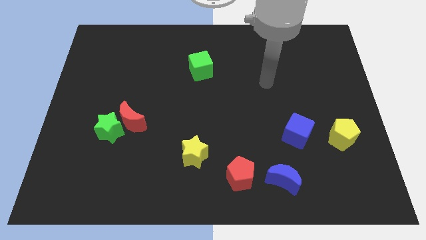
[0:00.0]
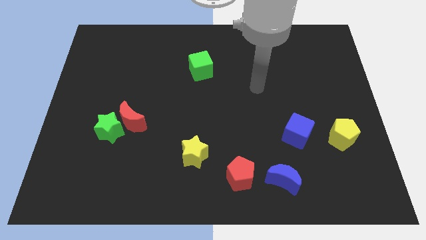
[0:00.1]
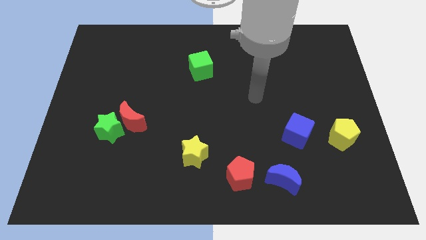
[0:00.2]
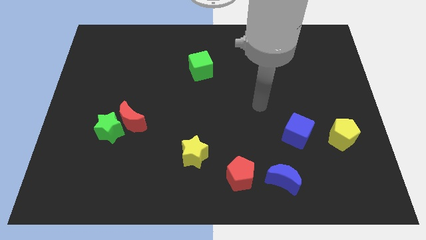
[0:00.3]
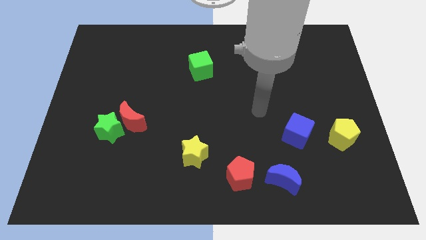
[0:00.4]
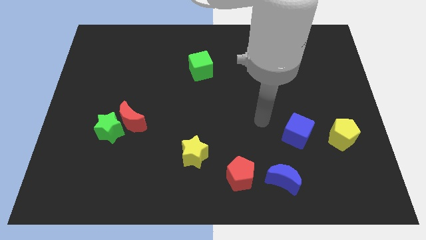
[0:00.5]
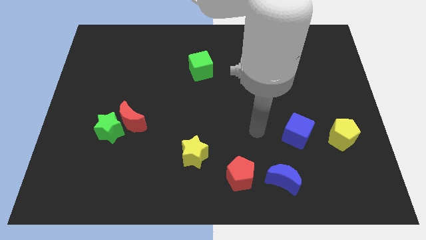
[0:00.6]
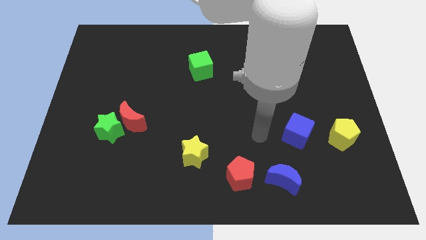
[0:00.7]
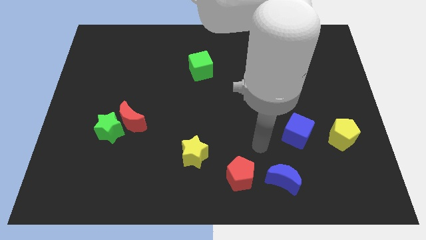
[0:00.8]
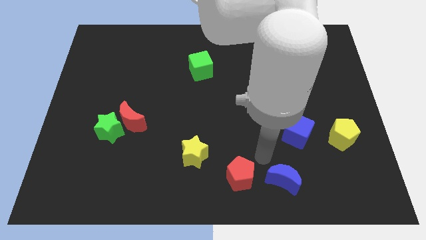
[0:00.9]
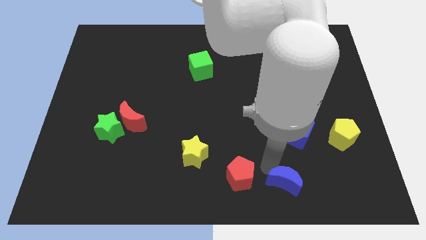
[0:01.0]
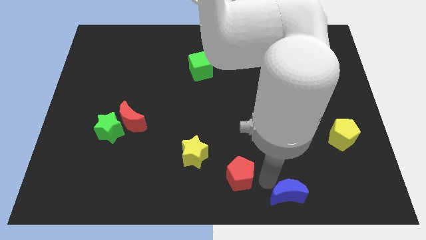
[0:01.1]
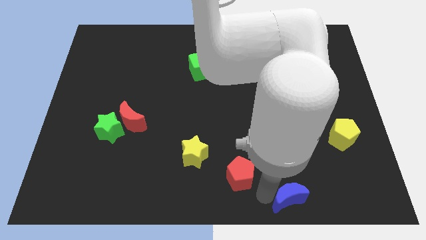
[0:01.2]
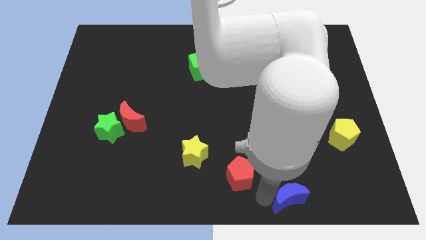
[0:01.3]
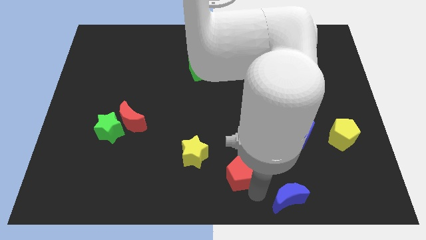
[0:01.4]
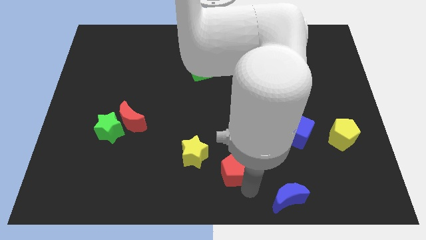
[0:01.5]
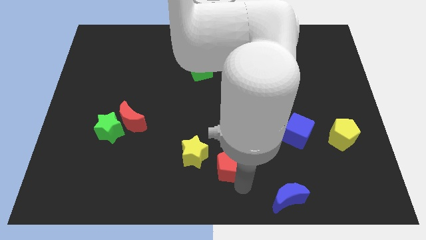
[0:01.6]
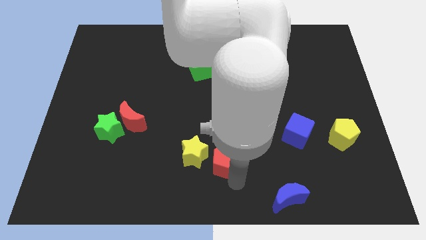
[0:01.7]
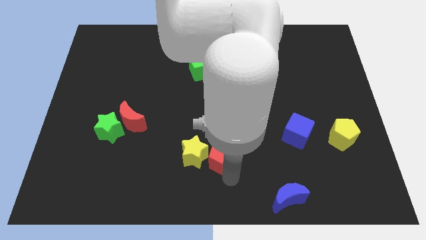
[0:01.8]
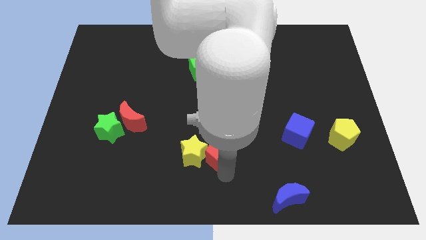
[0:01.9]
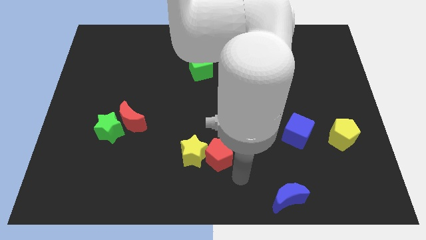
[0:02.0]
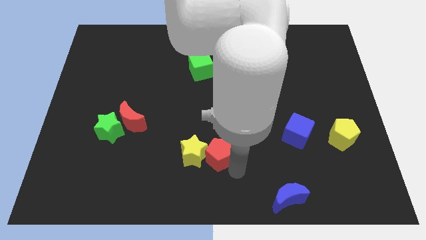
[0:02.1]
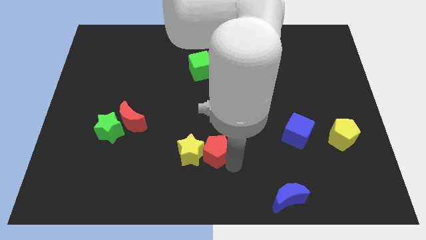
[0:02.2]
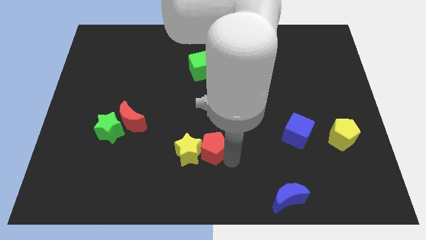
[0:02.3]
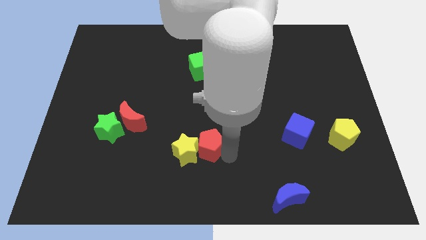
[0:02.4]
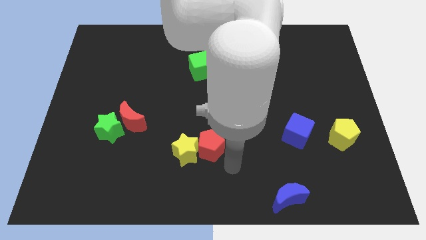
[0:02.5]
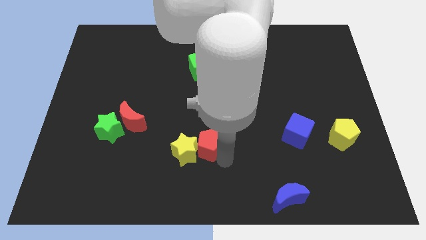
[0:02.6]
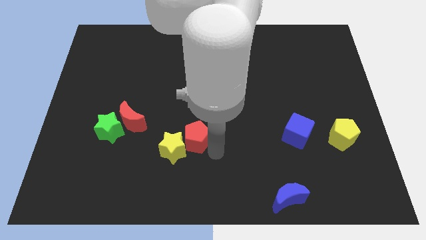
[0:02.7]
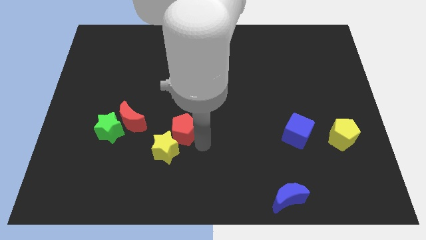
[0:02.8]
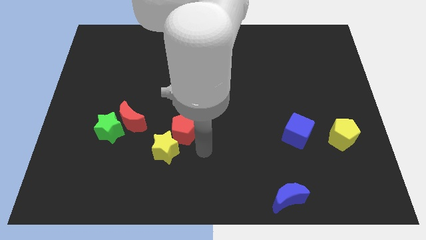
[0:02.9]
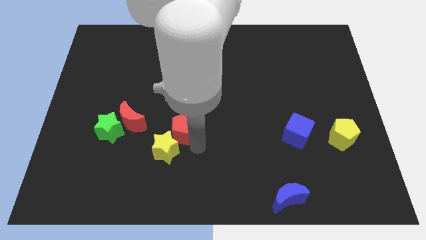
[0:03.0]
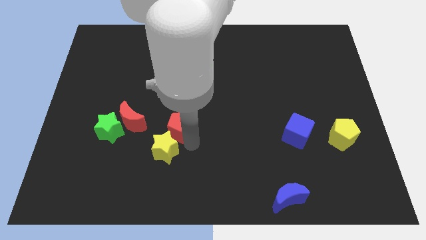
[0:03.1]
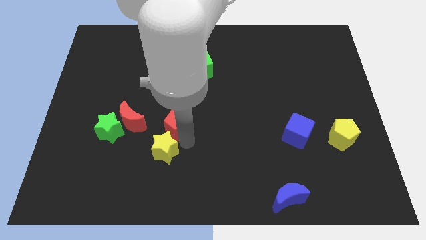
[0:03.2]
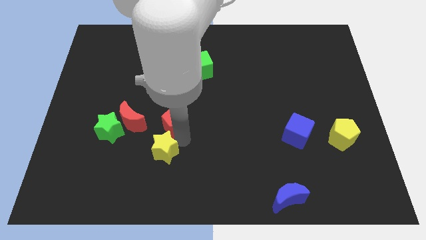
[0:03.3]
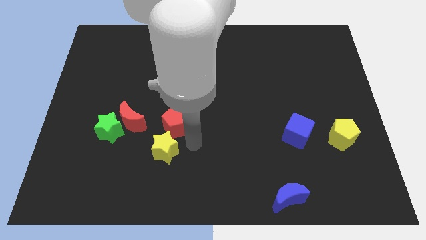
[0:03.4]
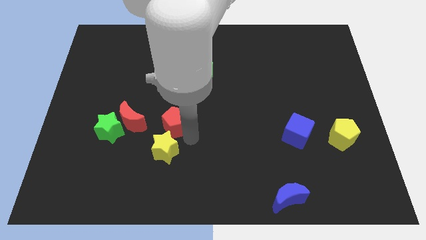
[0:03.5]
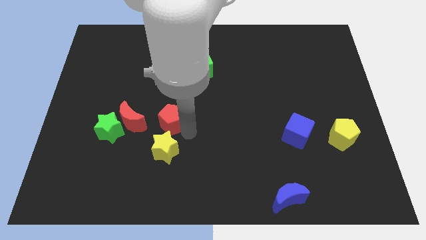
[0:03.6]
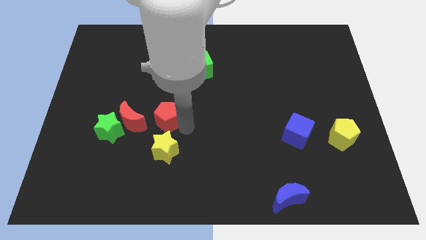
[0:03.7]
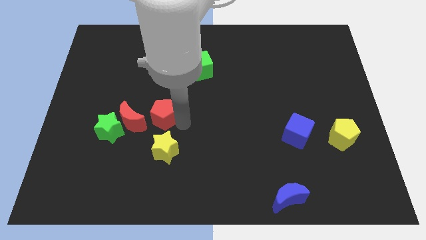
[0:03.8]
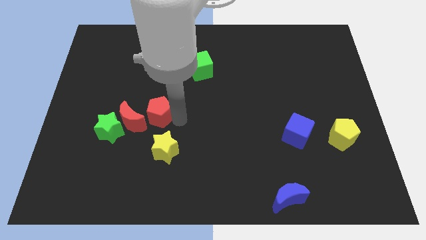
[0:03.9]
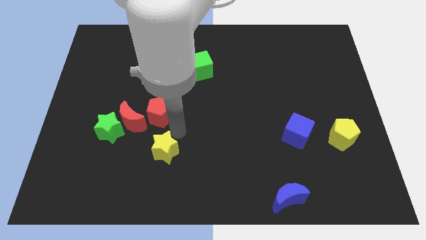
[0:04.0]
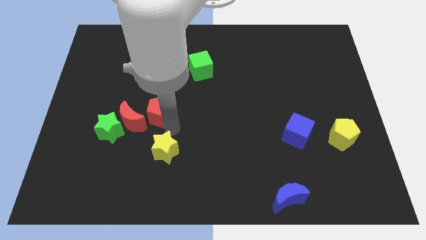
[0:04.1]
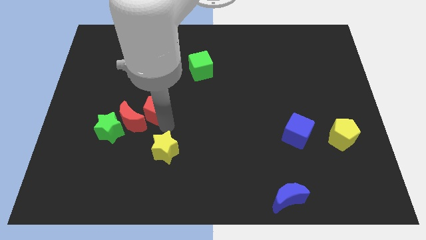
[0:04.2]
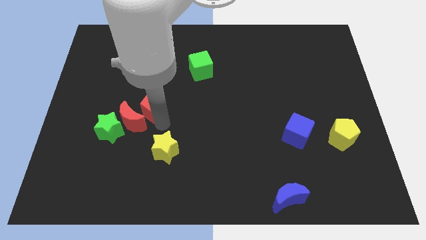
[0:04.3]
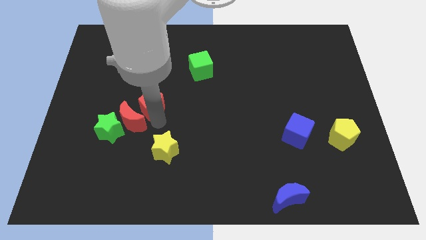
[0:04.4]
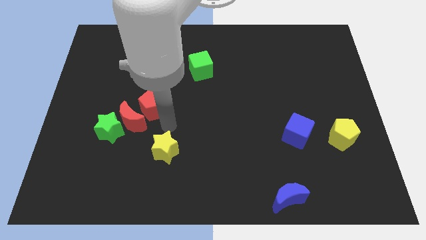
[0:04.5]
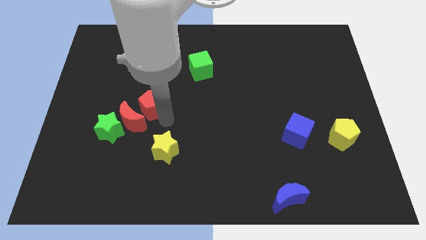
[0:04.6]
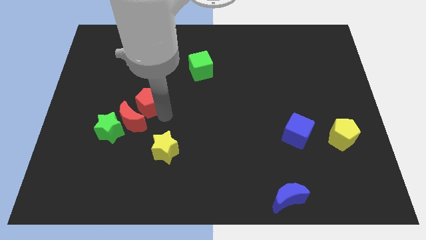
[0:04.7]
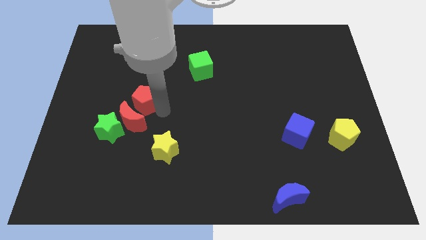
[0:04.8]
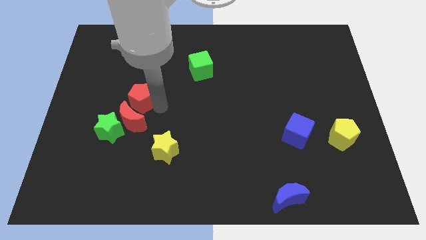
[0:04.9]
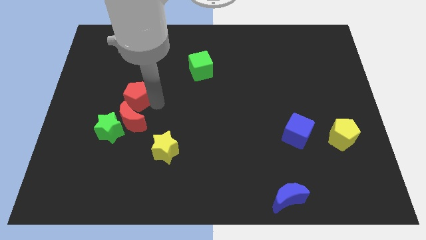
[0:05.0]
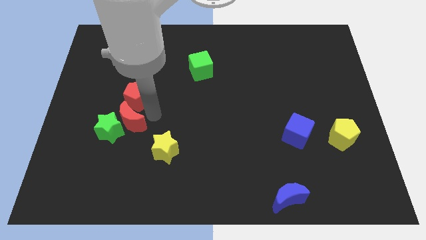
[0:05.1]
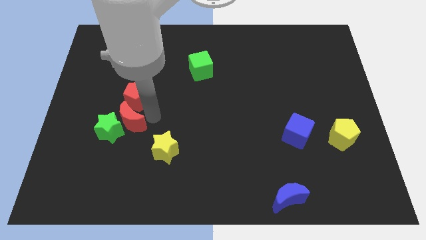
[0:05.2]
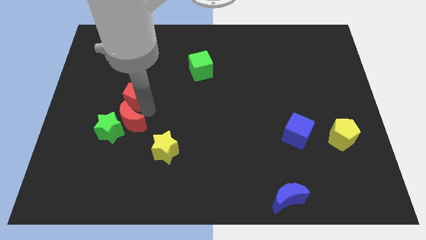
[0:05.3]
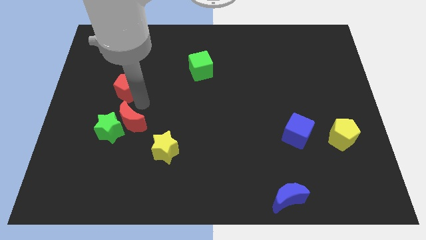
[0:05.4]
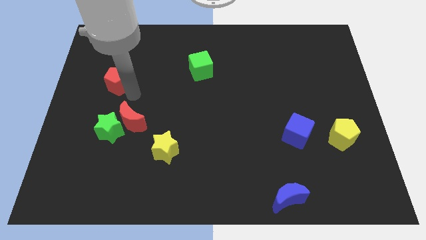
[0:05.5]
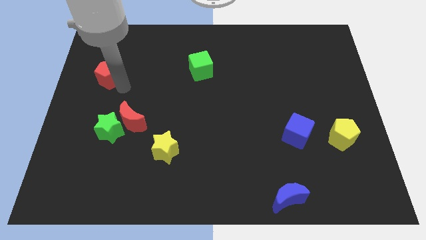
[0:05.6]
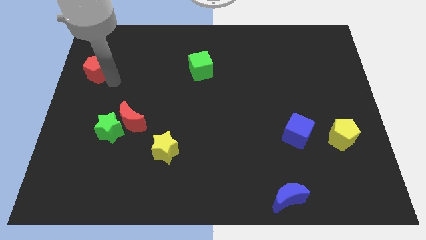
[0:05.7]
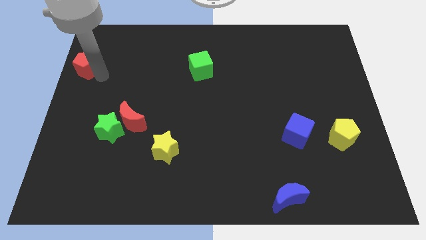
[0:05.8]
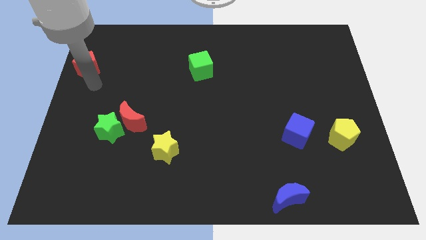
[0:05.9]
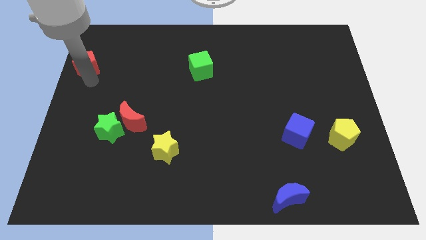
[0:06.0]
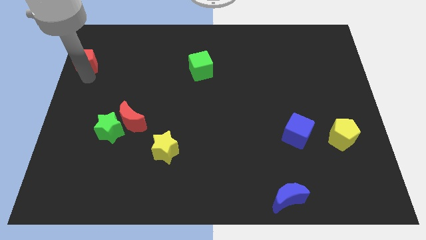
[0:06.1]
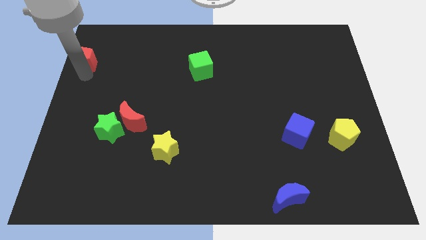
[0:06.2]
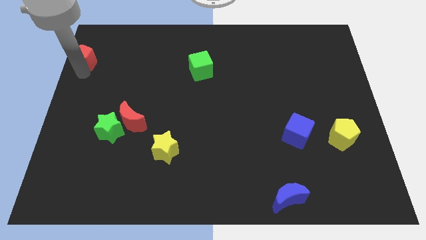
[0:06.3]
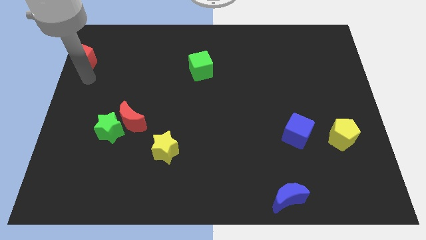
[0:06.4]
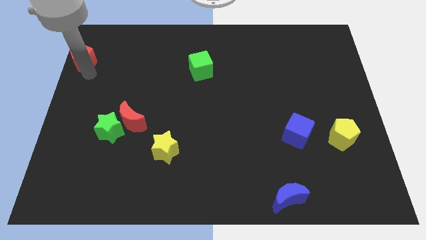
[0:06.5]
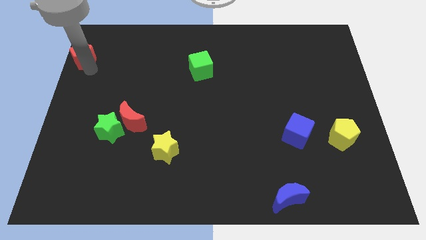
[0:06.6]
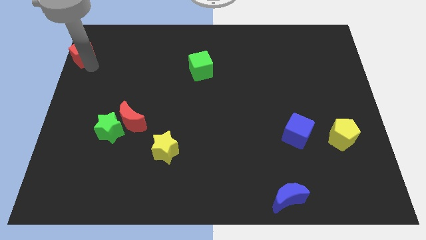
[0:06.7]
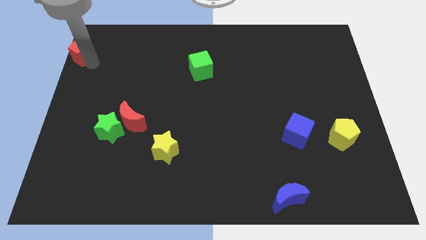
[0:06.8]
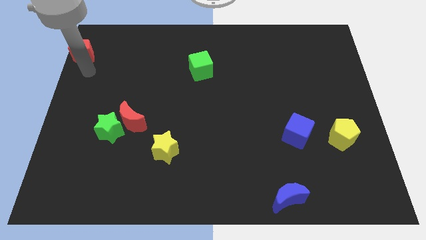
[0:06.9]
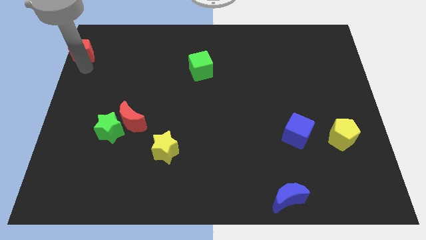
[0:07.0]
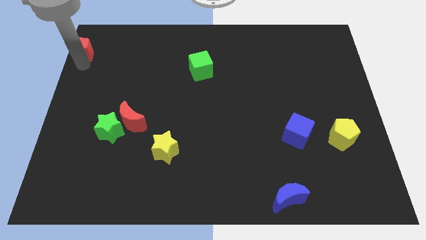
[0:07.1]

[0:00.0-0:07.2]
move the red pentagon to the top left

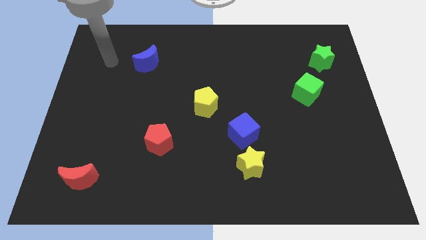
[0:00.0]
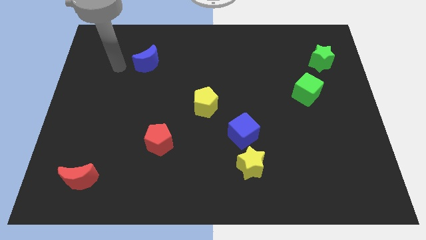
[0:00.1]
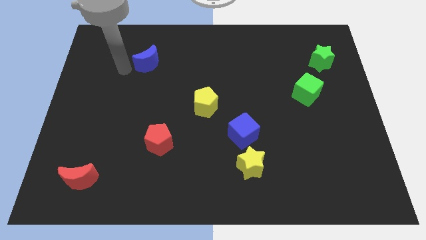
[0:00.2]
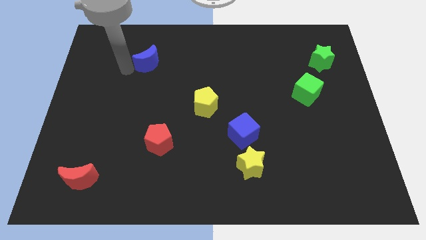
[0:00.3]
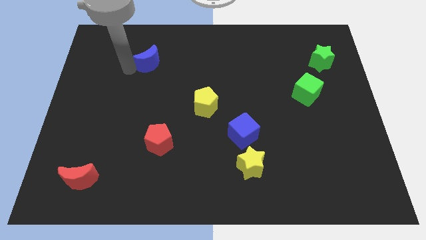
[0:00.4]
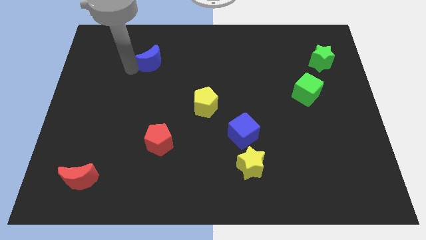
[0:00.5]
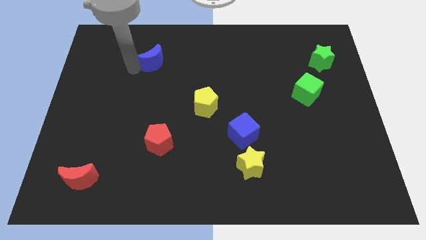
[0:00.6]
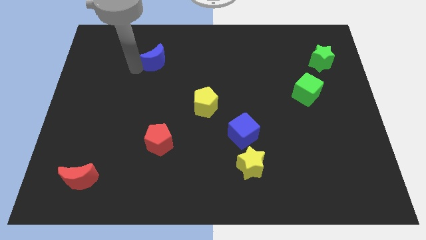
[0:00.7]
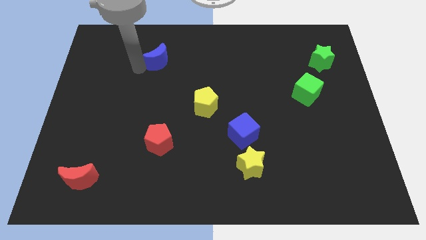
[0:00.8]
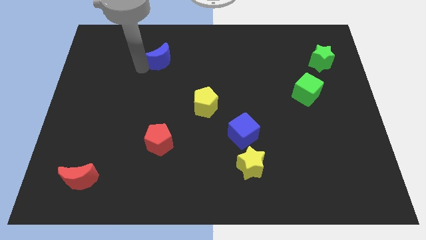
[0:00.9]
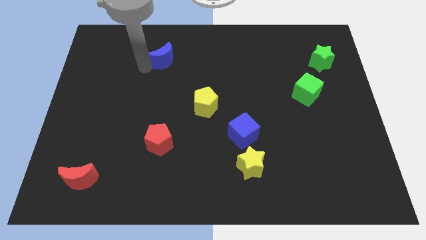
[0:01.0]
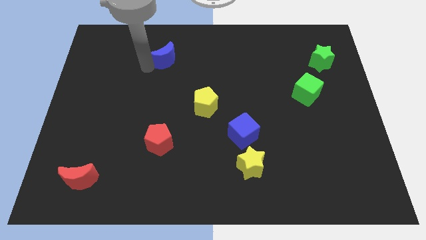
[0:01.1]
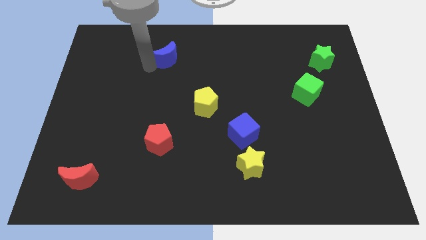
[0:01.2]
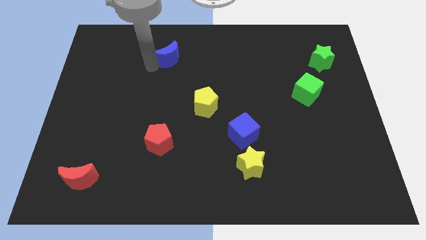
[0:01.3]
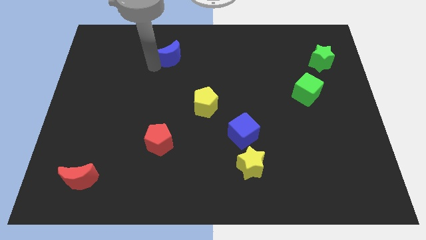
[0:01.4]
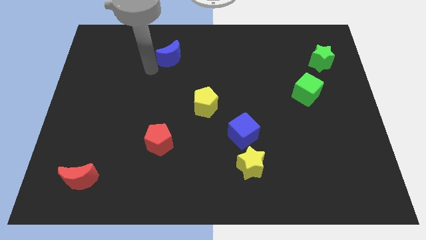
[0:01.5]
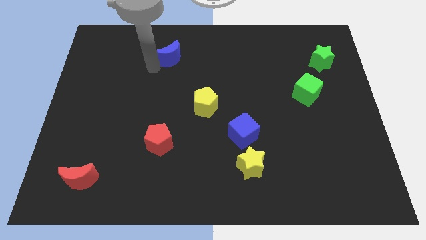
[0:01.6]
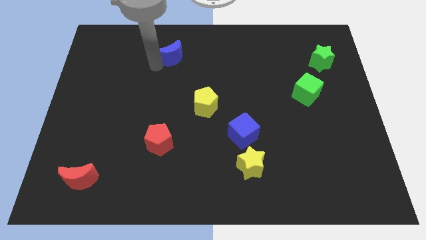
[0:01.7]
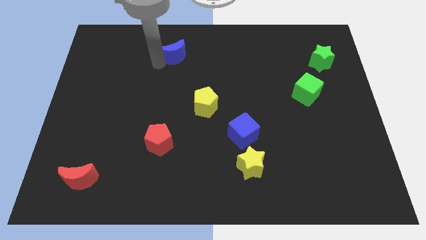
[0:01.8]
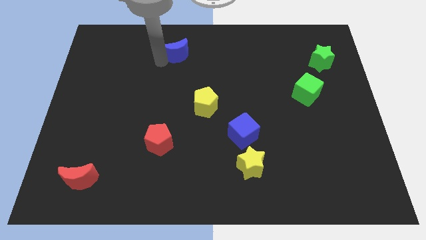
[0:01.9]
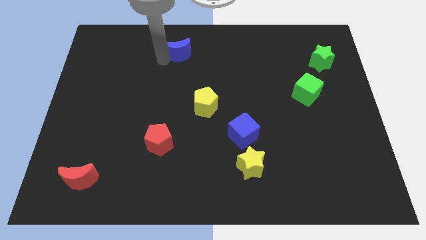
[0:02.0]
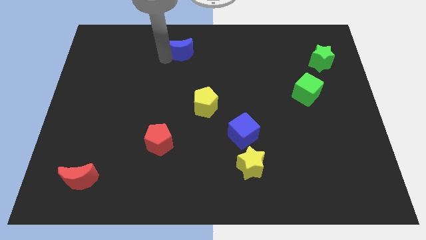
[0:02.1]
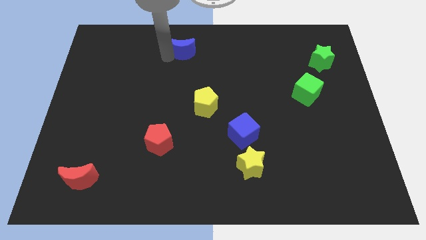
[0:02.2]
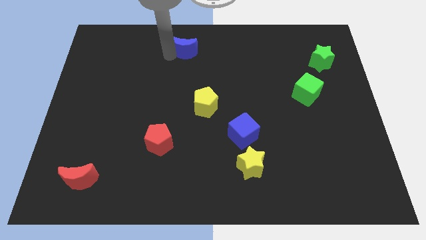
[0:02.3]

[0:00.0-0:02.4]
push the blue moon to the top side
